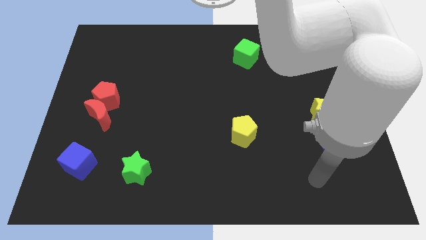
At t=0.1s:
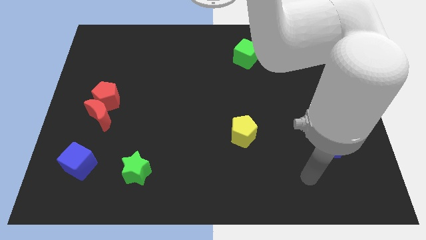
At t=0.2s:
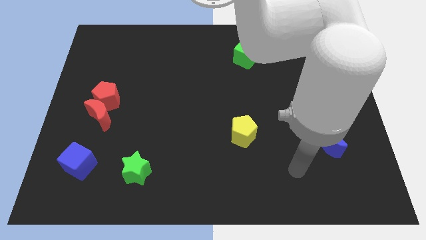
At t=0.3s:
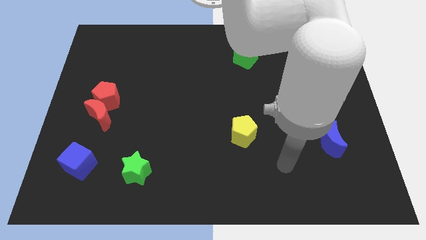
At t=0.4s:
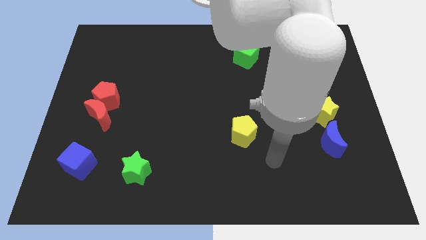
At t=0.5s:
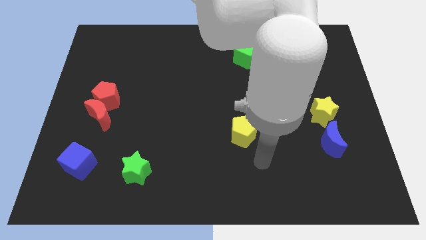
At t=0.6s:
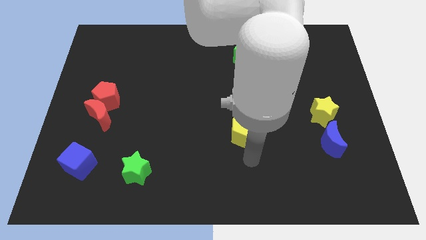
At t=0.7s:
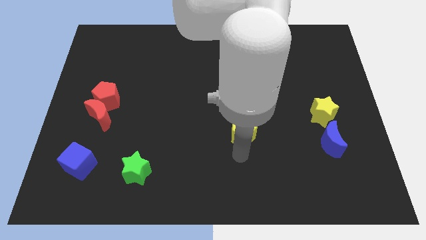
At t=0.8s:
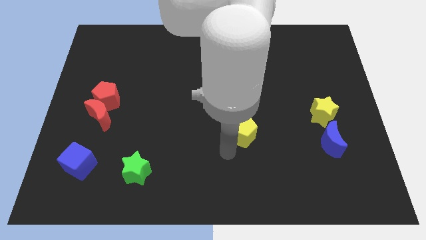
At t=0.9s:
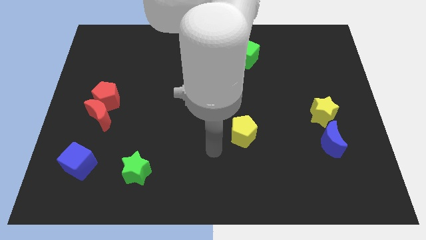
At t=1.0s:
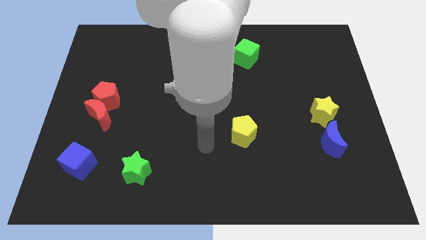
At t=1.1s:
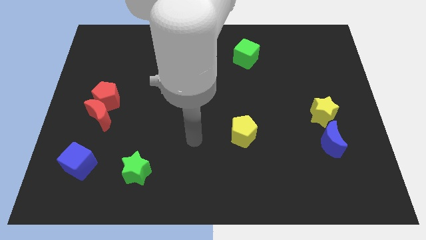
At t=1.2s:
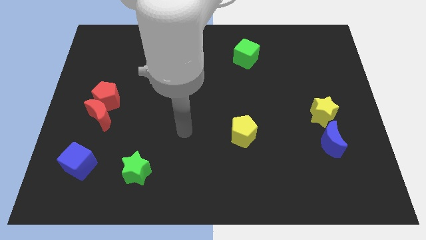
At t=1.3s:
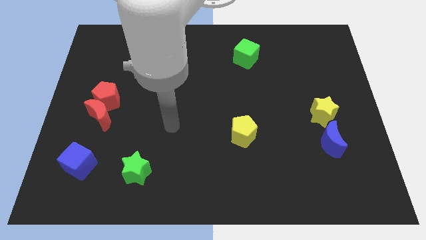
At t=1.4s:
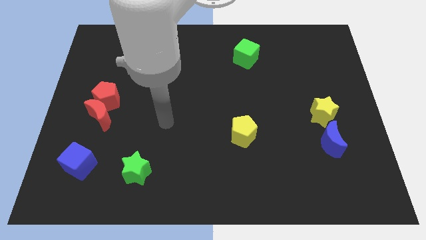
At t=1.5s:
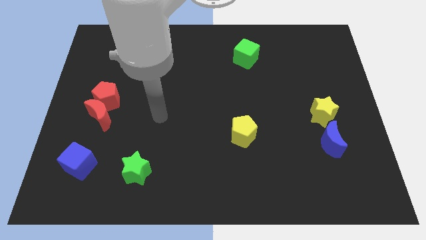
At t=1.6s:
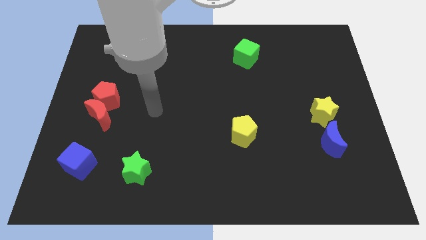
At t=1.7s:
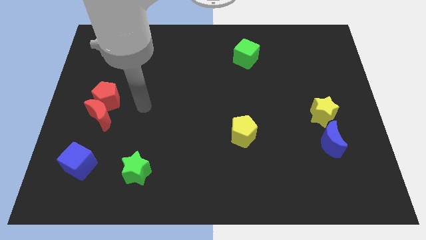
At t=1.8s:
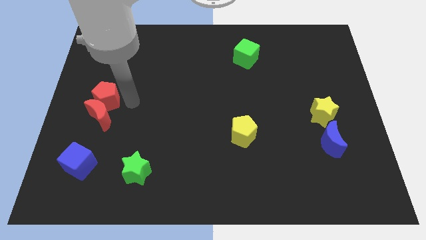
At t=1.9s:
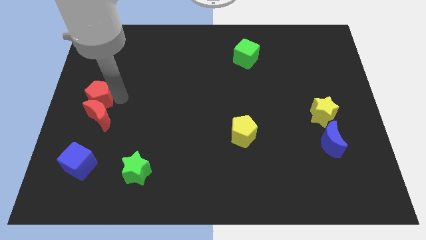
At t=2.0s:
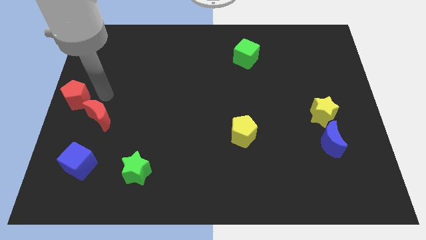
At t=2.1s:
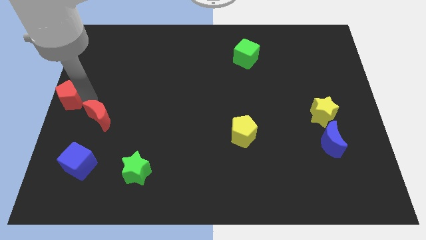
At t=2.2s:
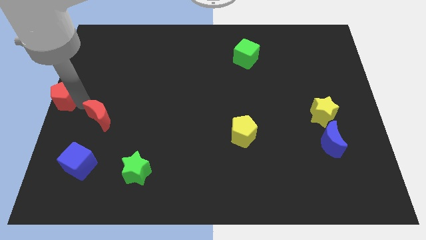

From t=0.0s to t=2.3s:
pull the red moon apart from the red pentagon

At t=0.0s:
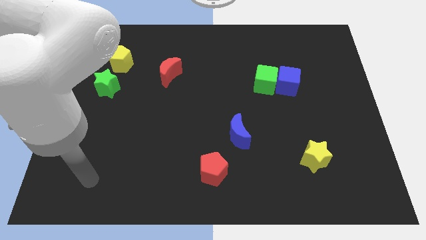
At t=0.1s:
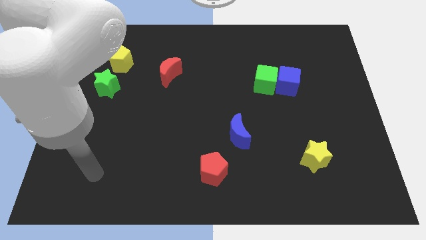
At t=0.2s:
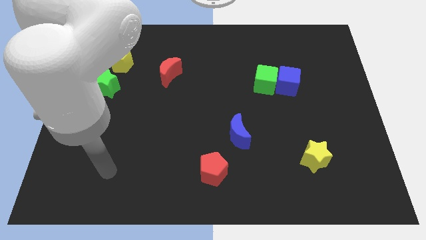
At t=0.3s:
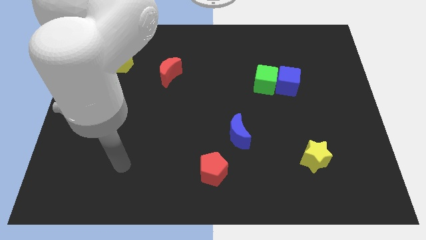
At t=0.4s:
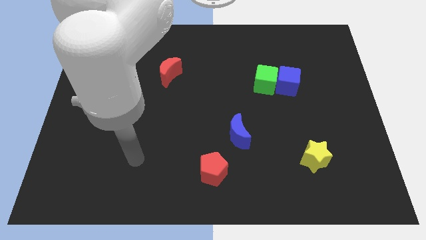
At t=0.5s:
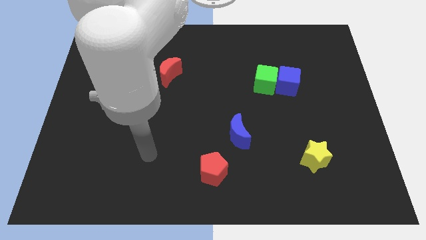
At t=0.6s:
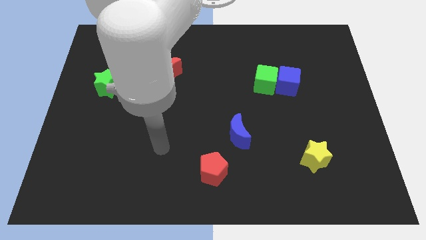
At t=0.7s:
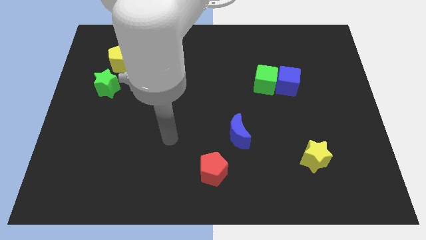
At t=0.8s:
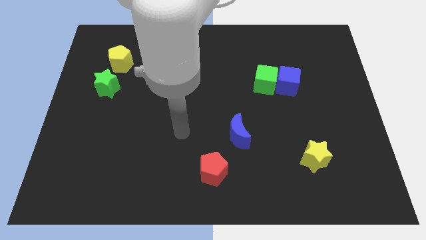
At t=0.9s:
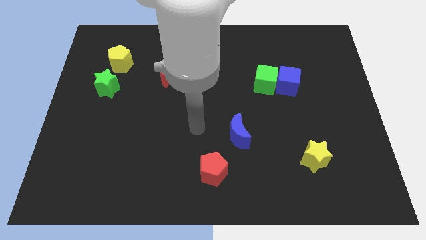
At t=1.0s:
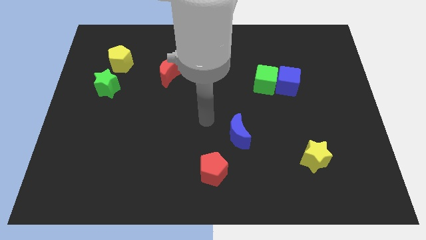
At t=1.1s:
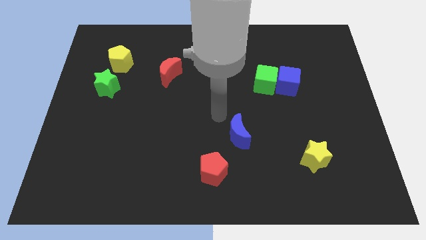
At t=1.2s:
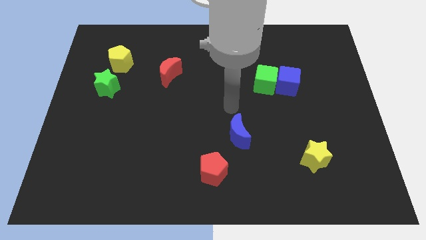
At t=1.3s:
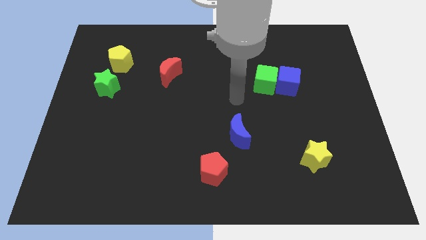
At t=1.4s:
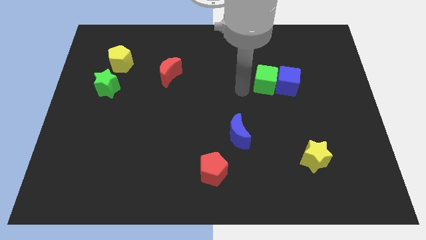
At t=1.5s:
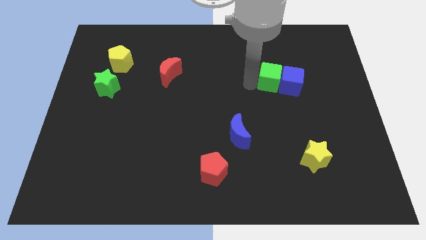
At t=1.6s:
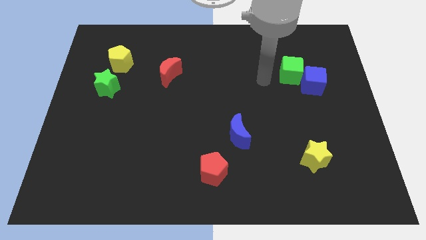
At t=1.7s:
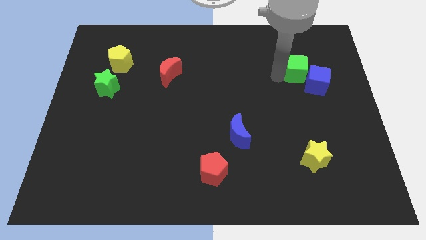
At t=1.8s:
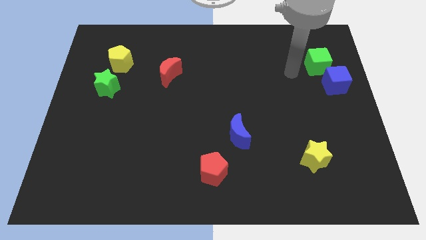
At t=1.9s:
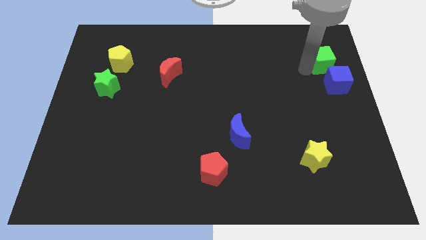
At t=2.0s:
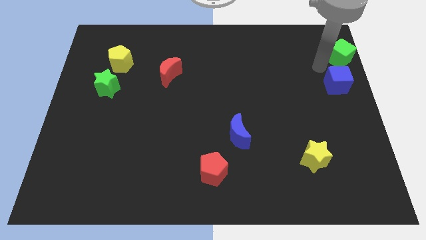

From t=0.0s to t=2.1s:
separate the blue cube from the green cube

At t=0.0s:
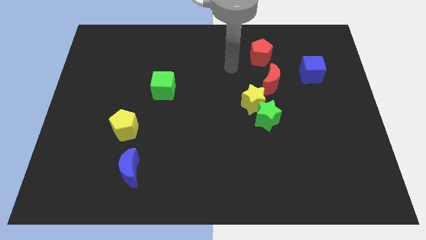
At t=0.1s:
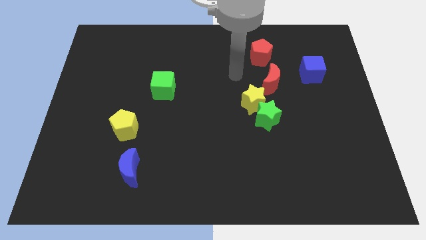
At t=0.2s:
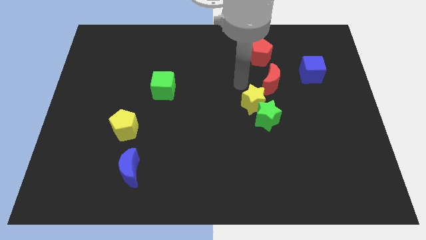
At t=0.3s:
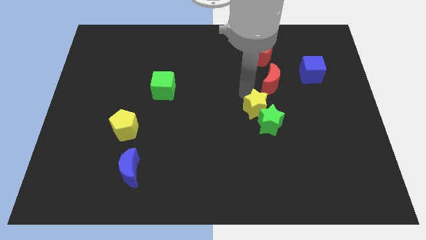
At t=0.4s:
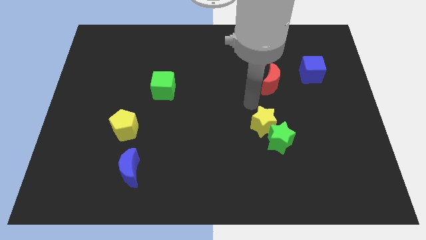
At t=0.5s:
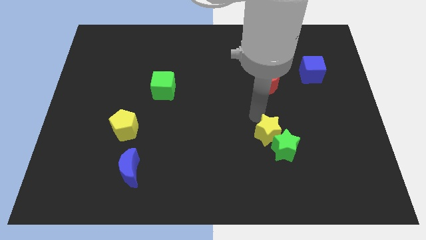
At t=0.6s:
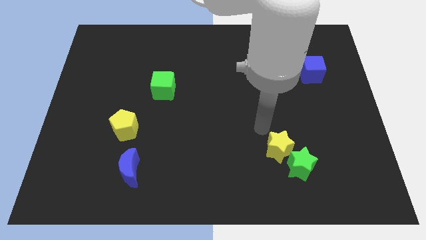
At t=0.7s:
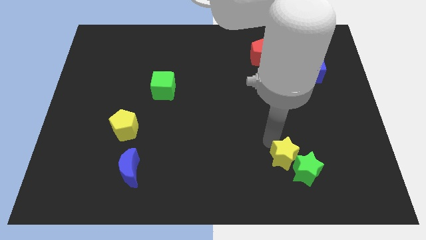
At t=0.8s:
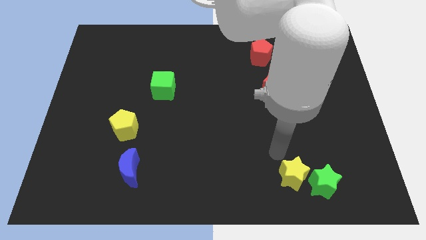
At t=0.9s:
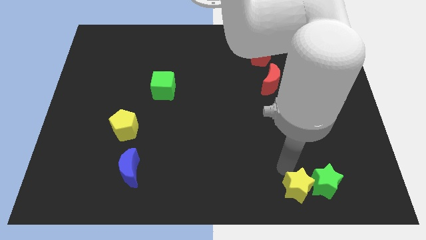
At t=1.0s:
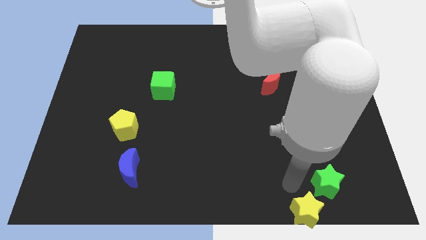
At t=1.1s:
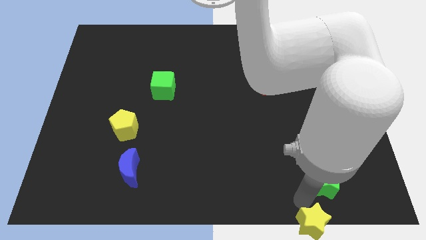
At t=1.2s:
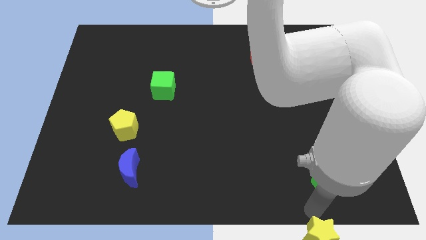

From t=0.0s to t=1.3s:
separate the green star from the yellow star

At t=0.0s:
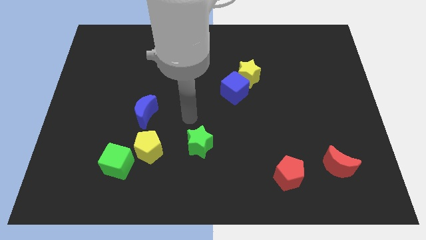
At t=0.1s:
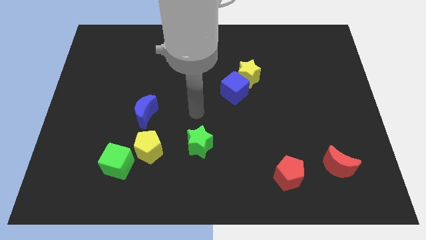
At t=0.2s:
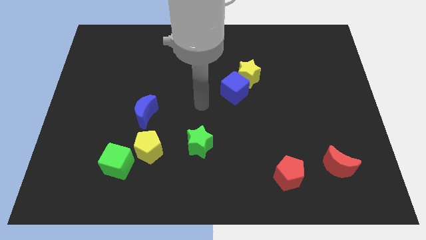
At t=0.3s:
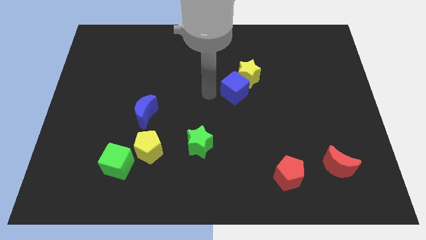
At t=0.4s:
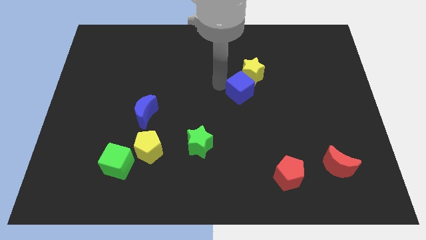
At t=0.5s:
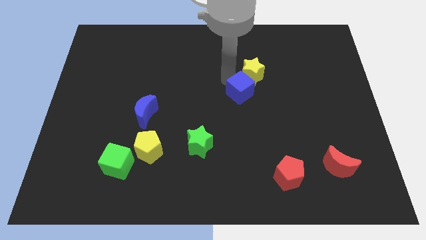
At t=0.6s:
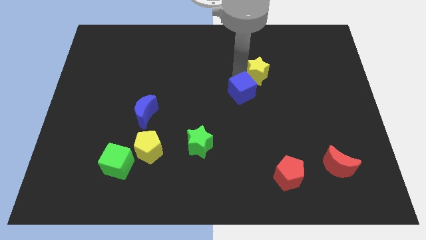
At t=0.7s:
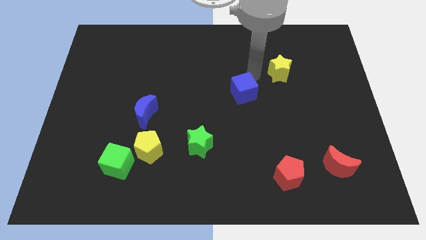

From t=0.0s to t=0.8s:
pull the blue cube apart from the yellow star

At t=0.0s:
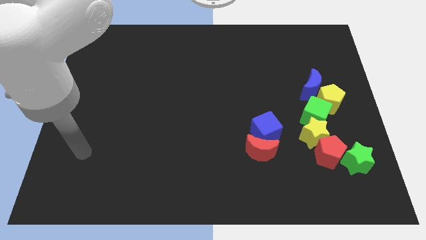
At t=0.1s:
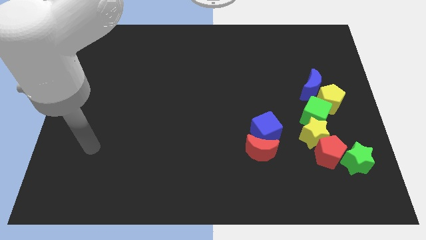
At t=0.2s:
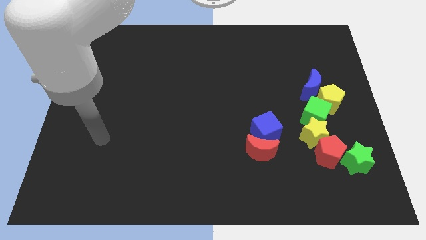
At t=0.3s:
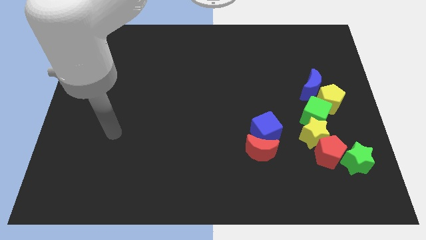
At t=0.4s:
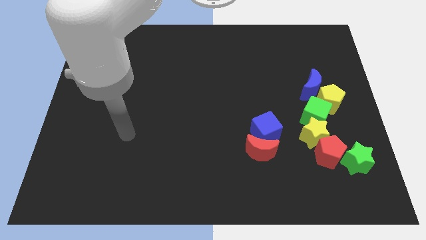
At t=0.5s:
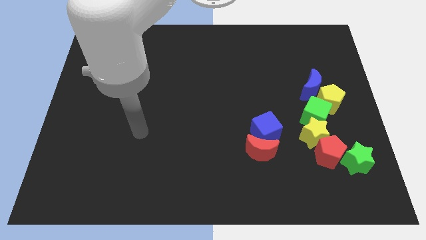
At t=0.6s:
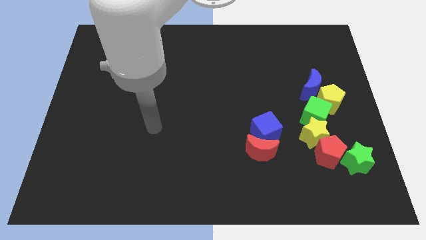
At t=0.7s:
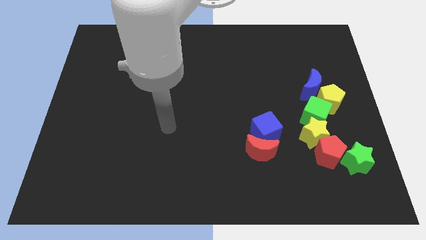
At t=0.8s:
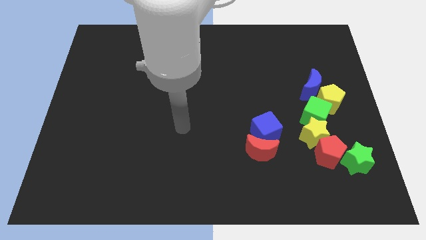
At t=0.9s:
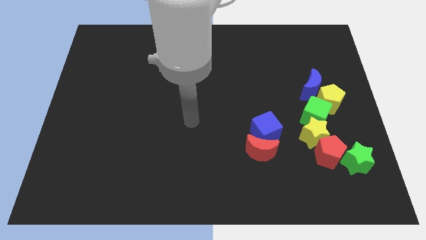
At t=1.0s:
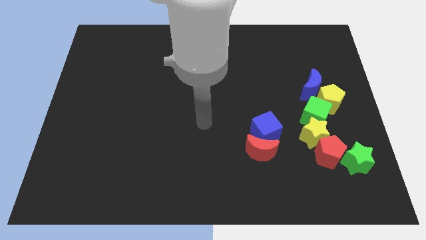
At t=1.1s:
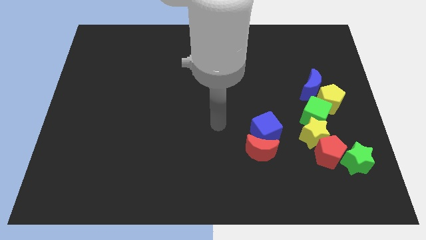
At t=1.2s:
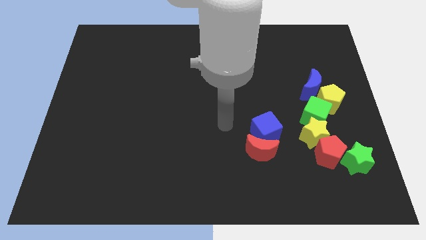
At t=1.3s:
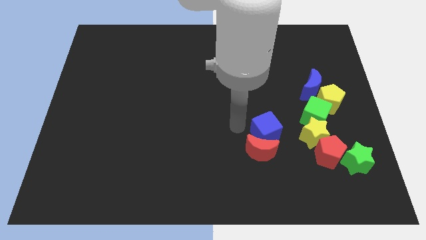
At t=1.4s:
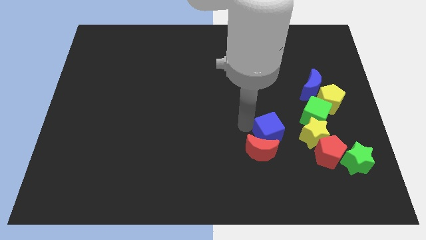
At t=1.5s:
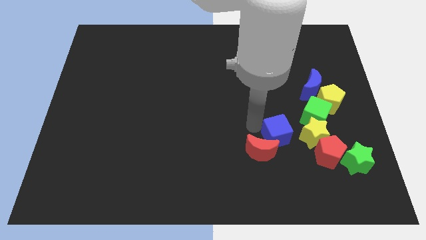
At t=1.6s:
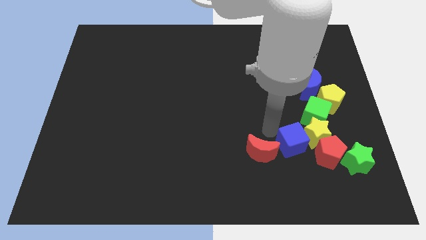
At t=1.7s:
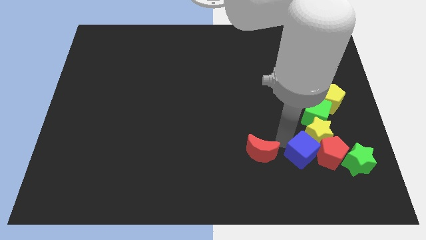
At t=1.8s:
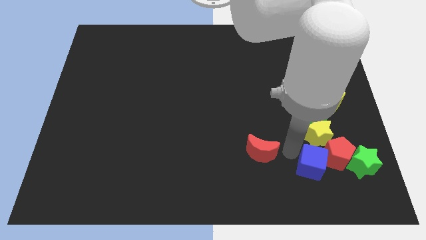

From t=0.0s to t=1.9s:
separate the red moon from the blue cube

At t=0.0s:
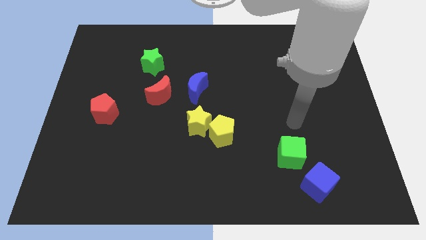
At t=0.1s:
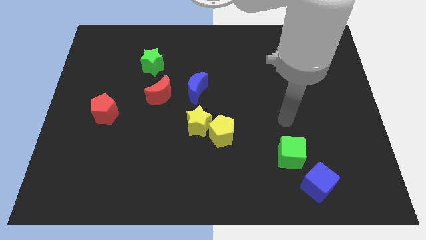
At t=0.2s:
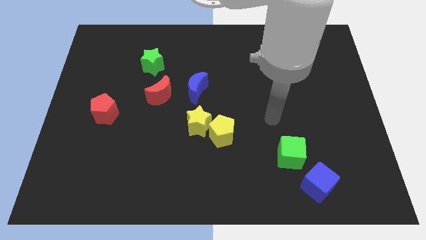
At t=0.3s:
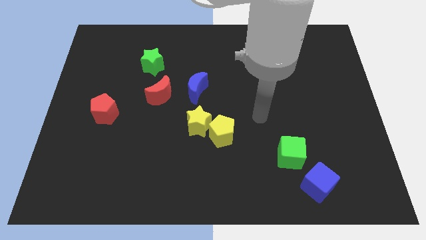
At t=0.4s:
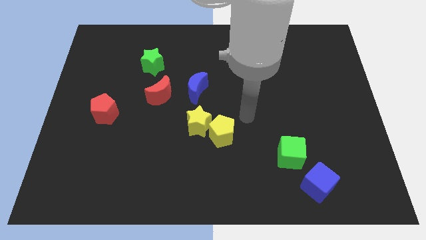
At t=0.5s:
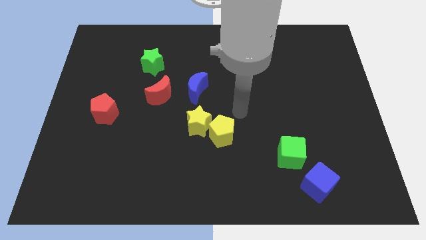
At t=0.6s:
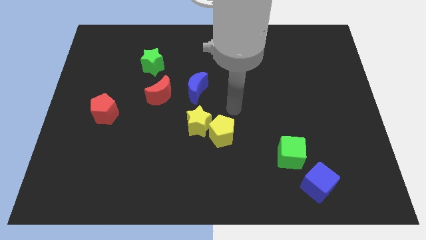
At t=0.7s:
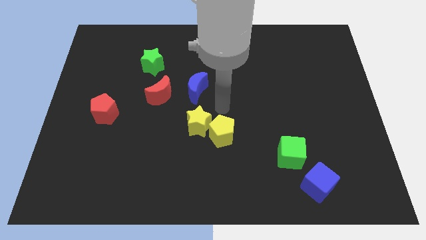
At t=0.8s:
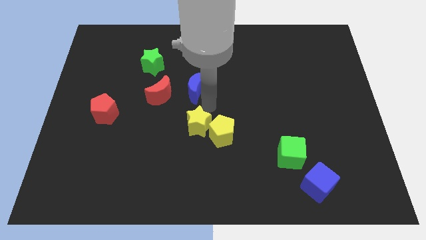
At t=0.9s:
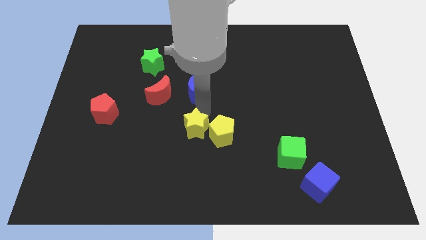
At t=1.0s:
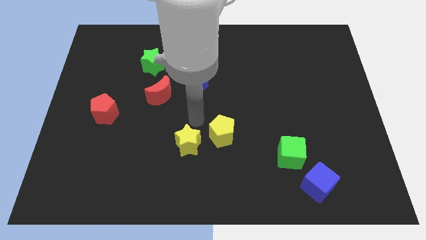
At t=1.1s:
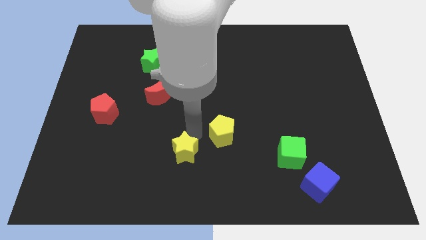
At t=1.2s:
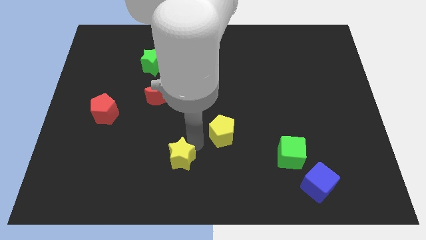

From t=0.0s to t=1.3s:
separate the yellow pentagon from the yellow star
